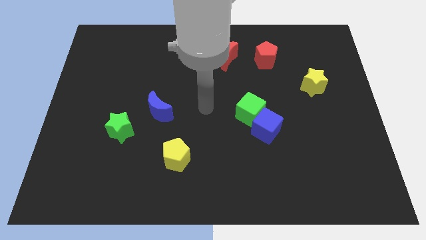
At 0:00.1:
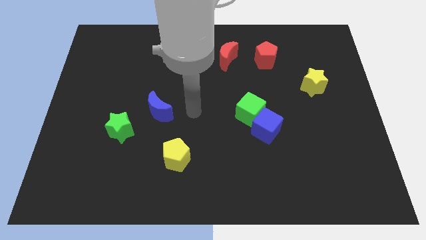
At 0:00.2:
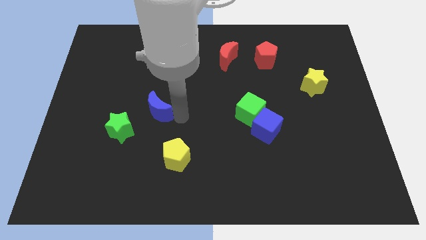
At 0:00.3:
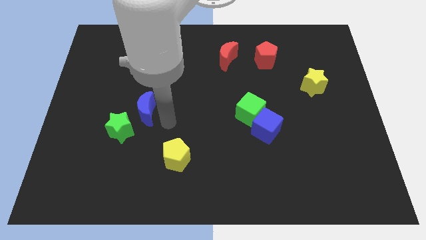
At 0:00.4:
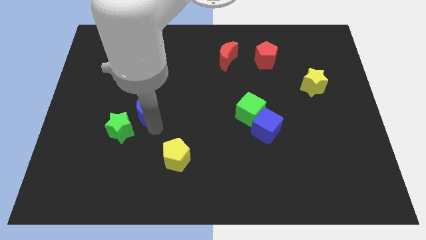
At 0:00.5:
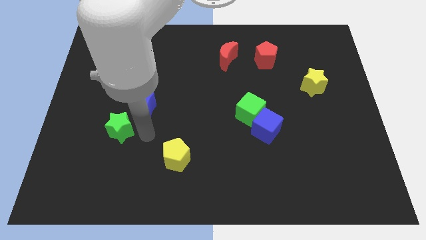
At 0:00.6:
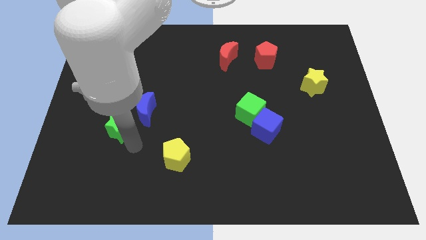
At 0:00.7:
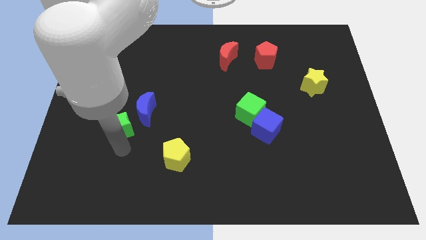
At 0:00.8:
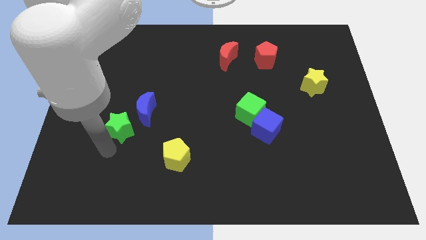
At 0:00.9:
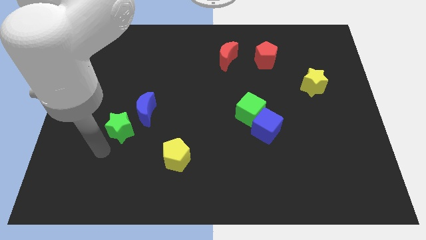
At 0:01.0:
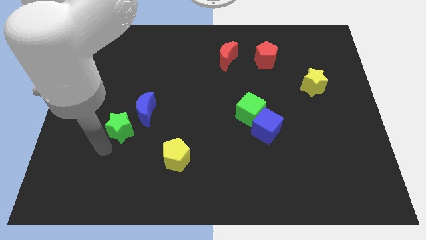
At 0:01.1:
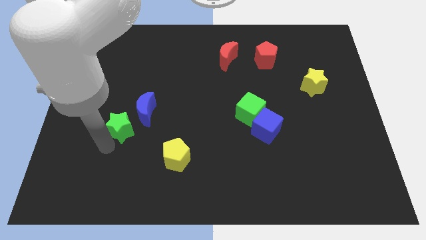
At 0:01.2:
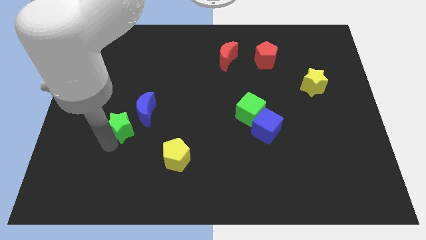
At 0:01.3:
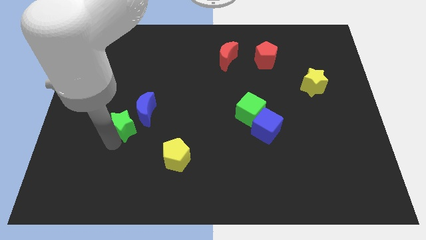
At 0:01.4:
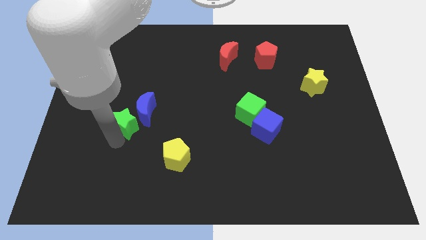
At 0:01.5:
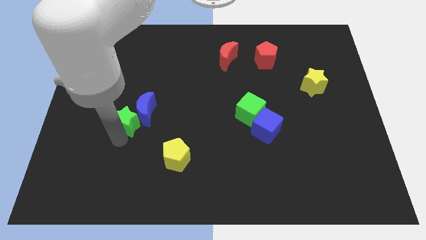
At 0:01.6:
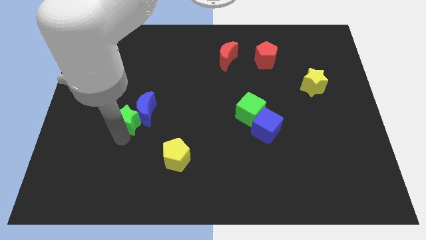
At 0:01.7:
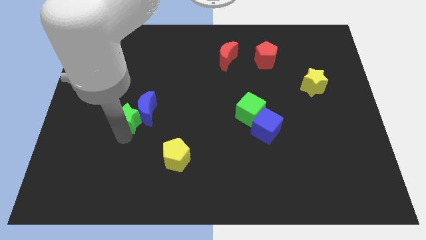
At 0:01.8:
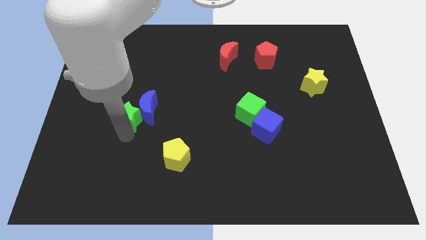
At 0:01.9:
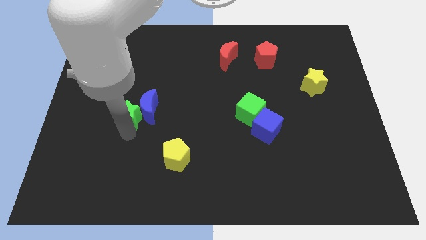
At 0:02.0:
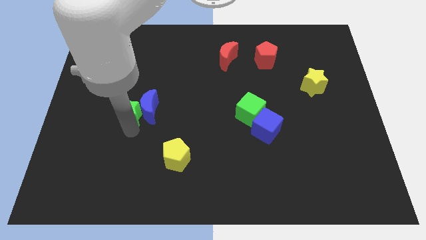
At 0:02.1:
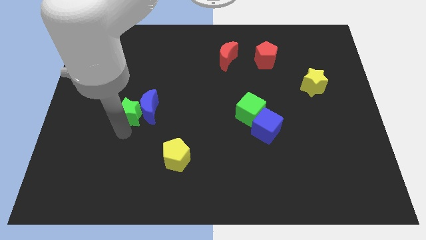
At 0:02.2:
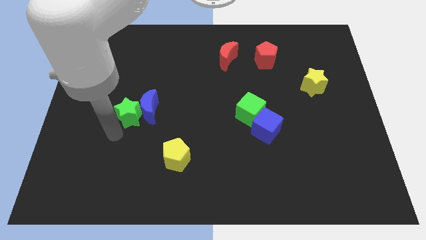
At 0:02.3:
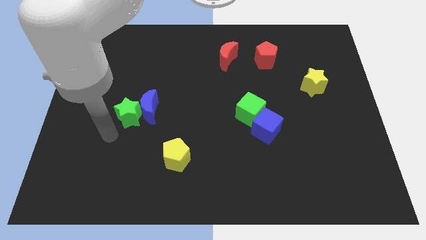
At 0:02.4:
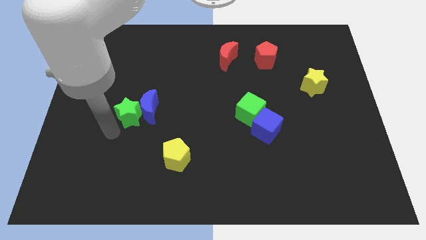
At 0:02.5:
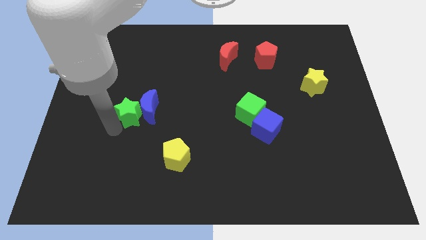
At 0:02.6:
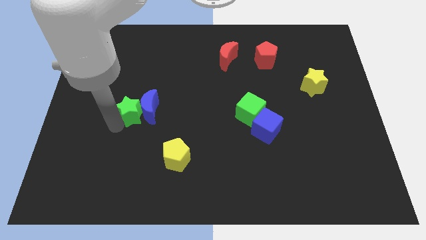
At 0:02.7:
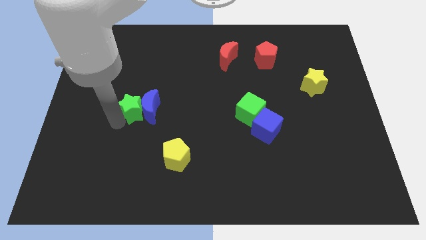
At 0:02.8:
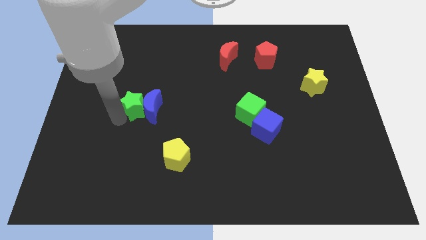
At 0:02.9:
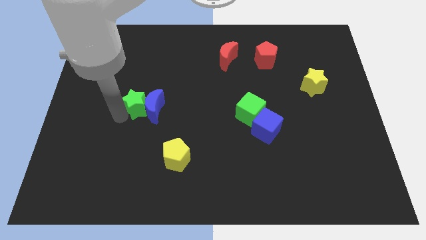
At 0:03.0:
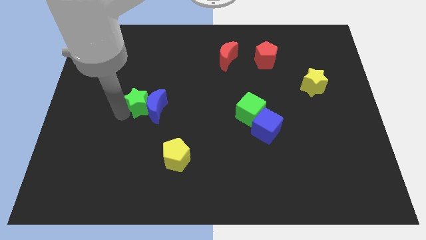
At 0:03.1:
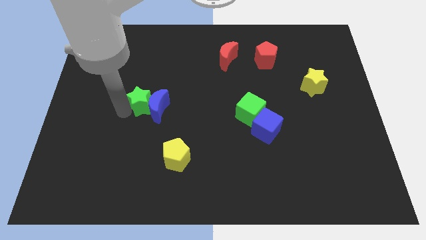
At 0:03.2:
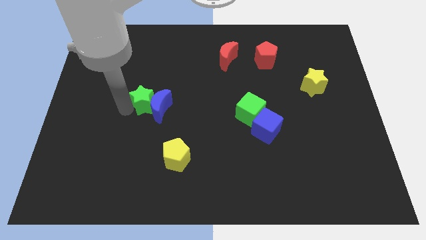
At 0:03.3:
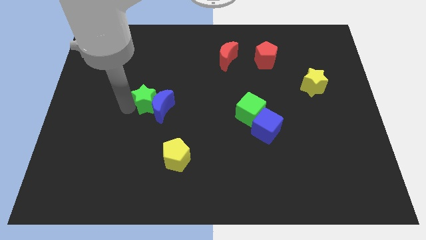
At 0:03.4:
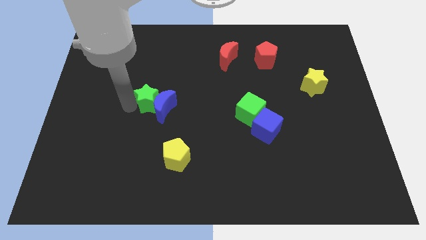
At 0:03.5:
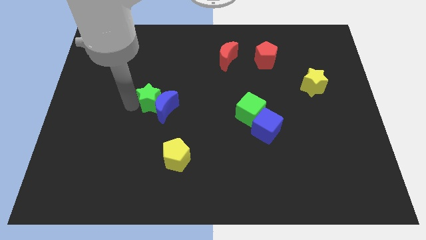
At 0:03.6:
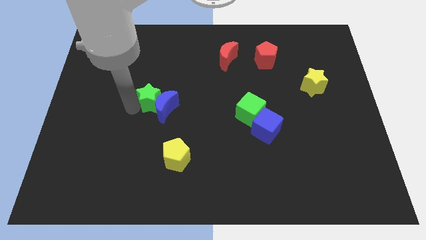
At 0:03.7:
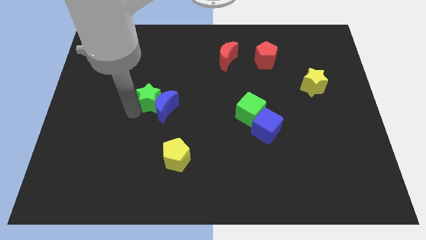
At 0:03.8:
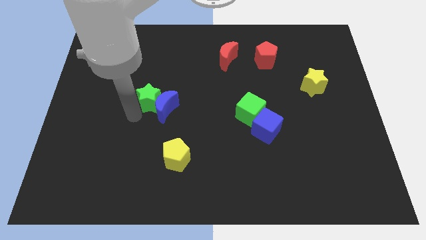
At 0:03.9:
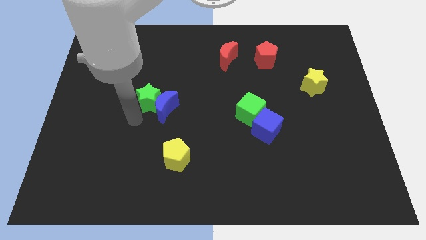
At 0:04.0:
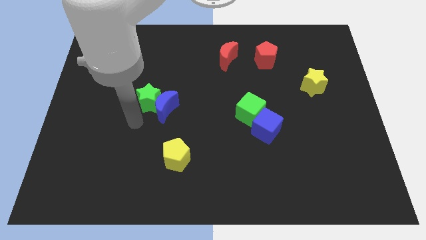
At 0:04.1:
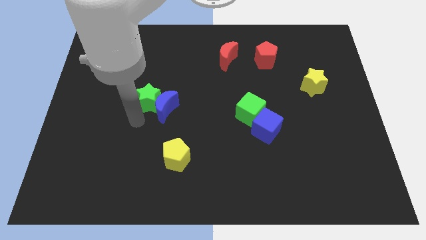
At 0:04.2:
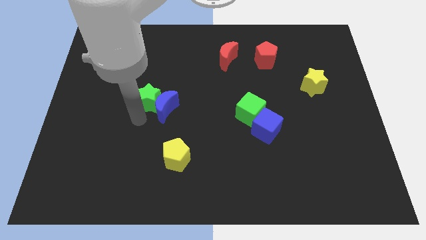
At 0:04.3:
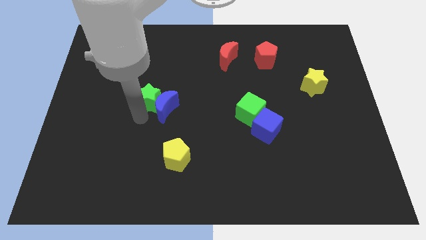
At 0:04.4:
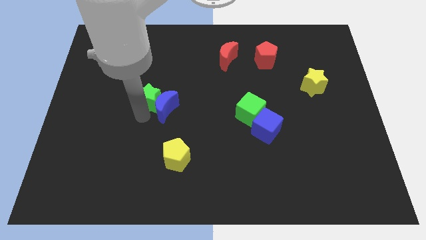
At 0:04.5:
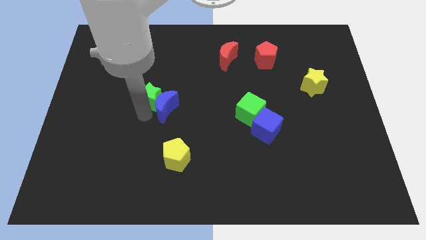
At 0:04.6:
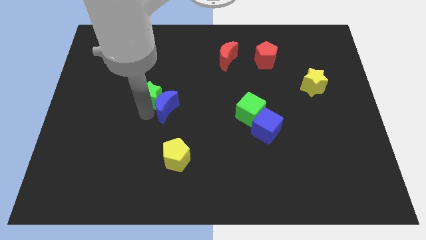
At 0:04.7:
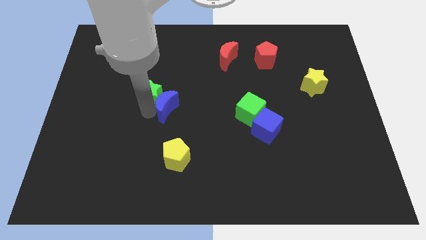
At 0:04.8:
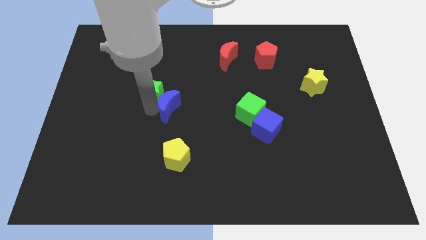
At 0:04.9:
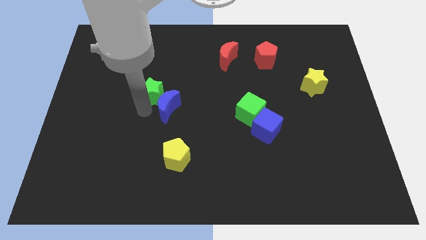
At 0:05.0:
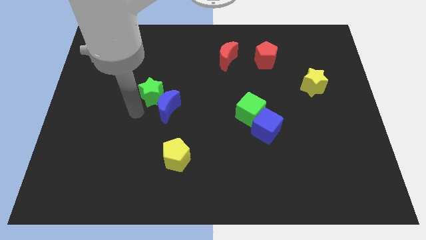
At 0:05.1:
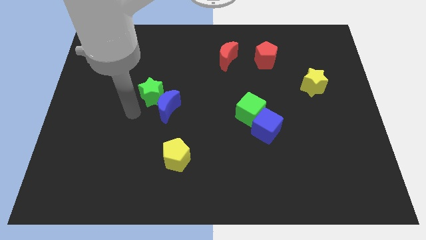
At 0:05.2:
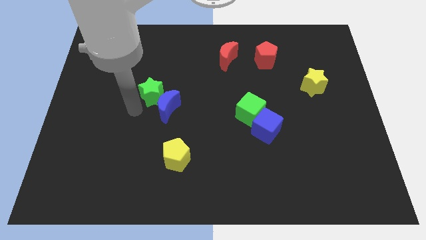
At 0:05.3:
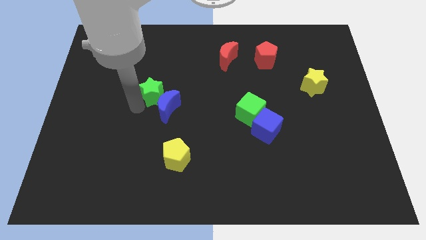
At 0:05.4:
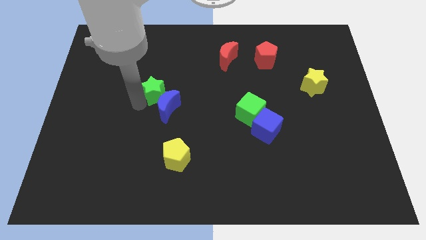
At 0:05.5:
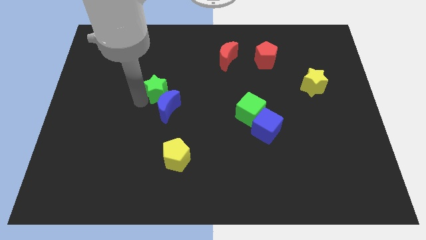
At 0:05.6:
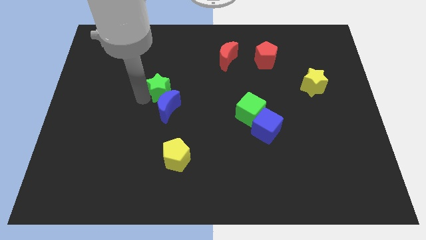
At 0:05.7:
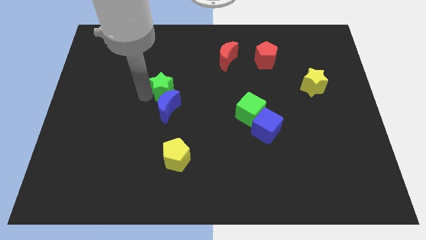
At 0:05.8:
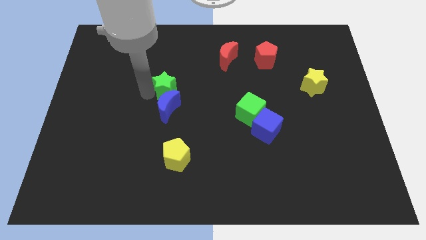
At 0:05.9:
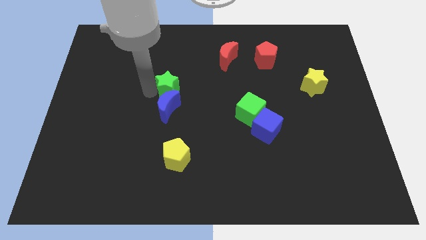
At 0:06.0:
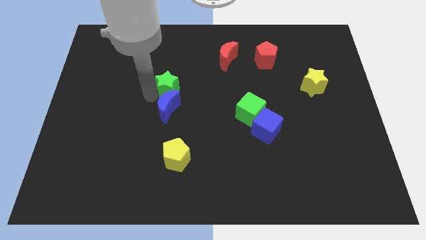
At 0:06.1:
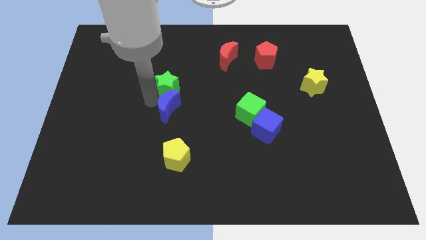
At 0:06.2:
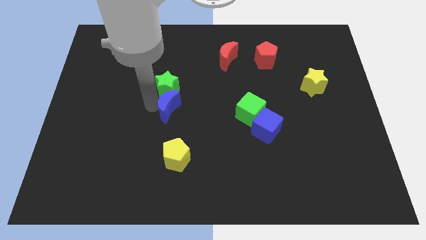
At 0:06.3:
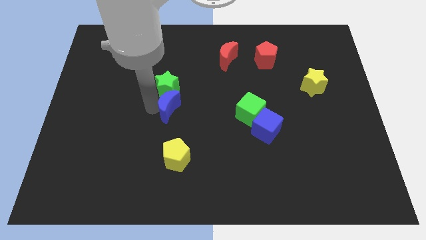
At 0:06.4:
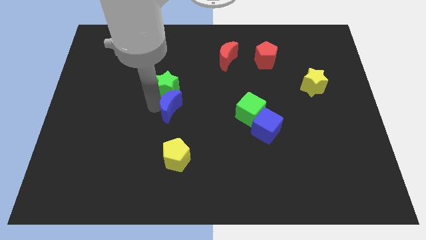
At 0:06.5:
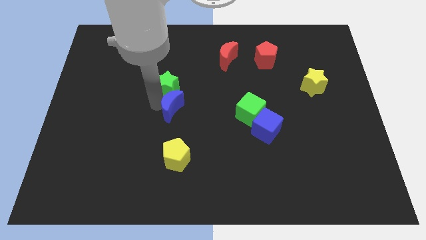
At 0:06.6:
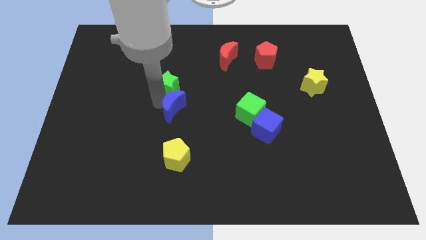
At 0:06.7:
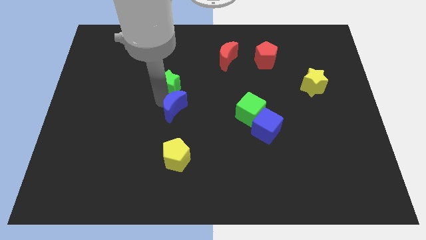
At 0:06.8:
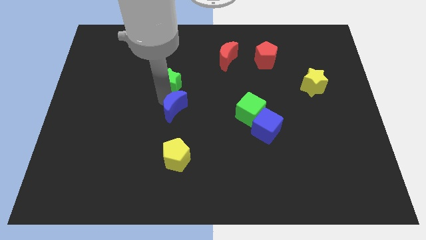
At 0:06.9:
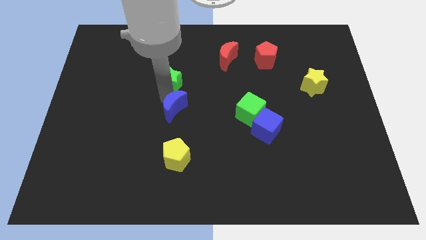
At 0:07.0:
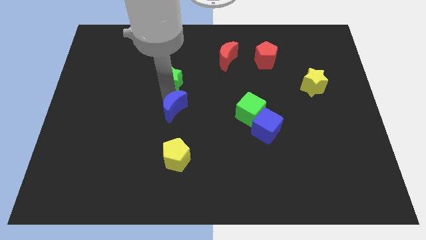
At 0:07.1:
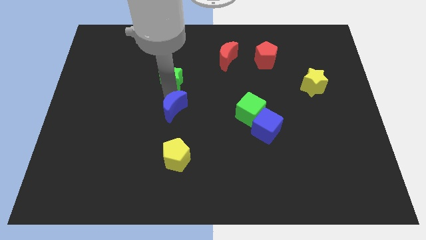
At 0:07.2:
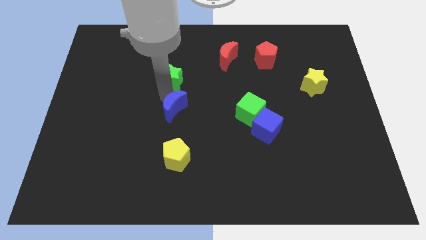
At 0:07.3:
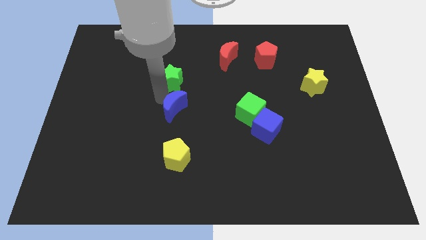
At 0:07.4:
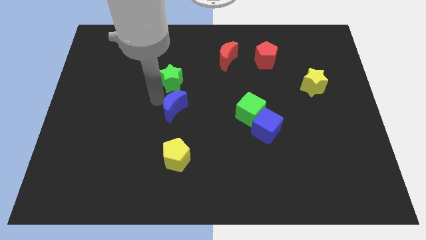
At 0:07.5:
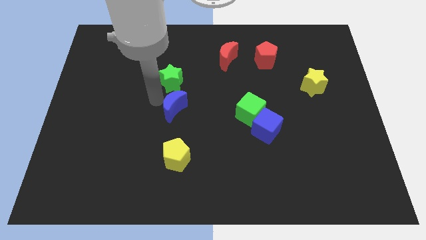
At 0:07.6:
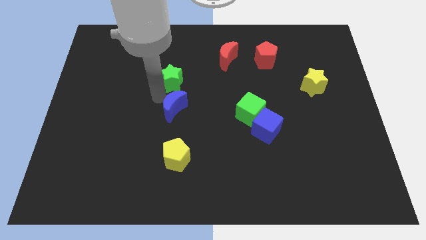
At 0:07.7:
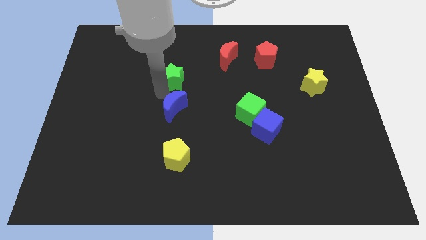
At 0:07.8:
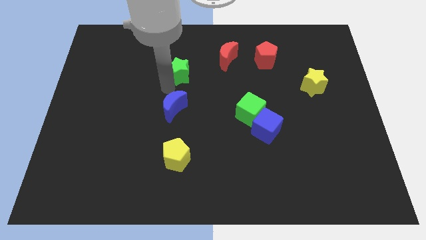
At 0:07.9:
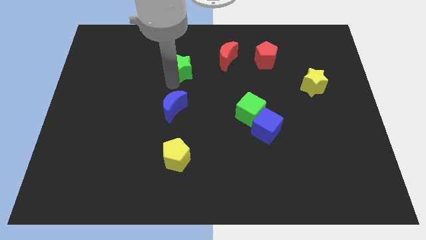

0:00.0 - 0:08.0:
slide the green star to the left of the red moon
